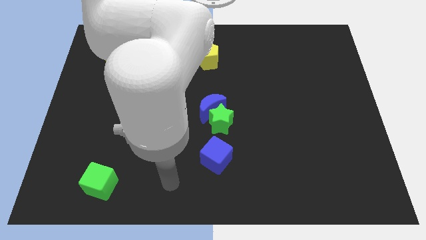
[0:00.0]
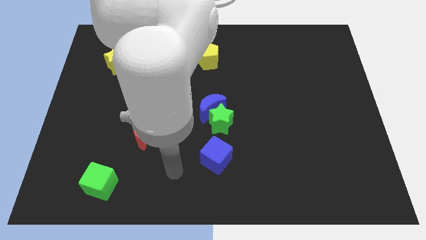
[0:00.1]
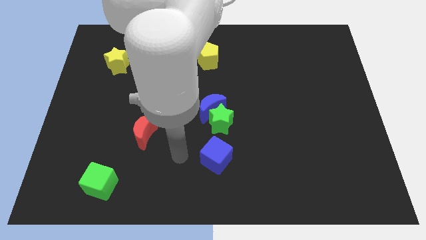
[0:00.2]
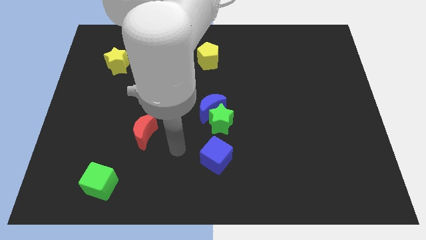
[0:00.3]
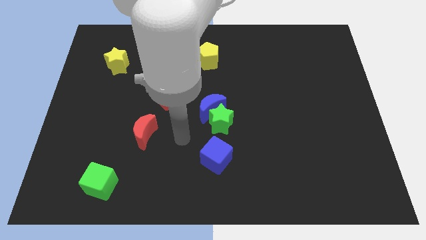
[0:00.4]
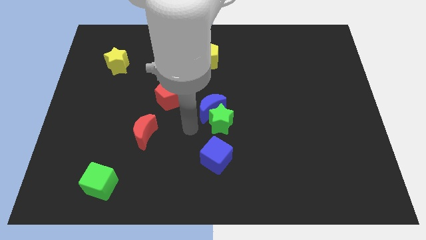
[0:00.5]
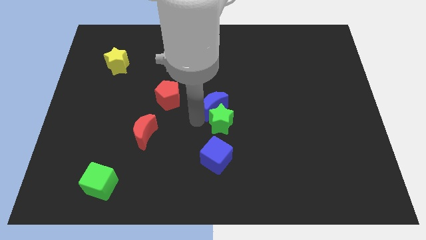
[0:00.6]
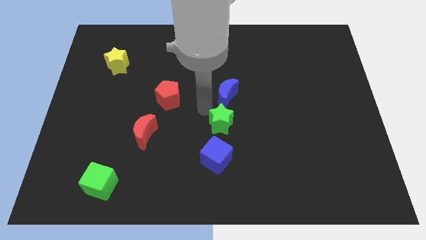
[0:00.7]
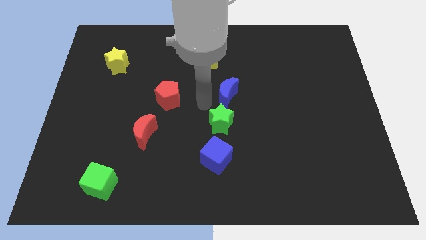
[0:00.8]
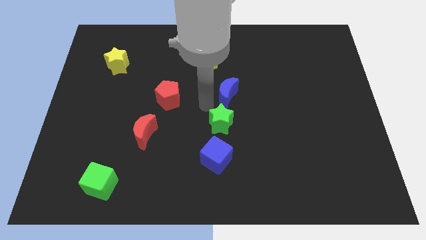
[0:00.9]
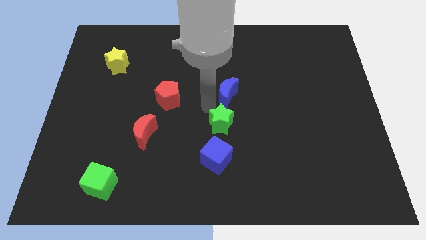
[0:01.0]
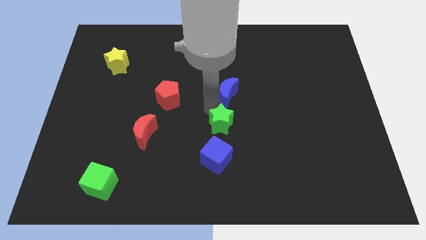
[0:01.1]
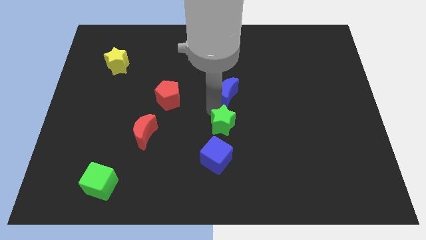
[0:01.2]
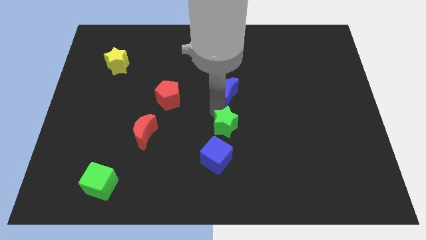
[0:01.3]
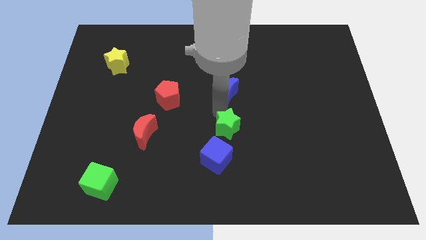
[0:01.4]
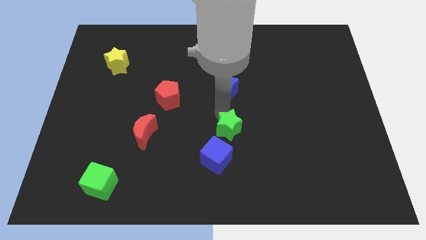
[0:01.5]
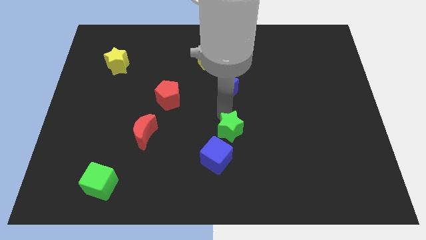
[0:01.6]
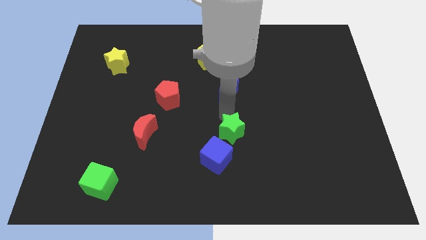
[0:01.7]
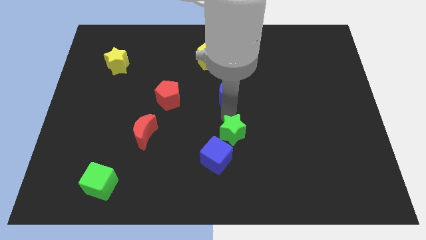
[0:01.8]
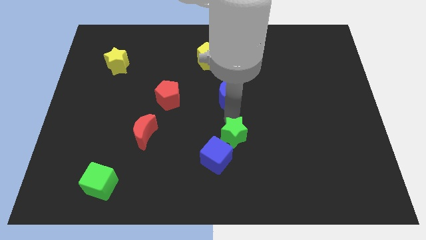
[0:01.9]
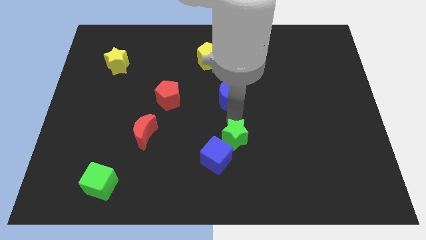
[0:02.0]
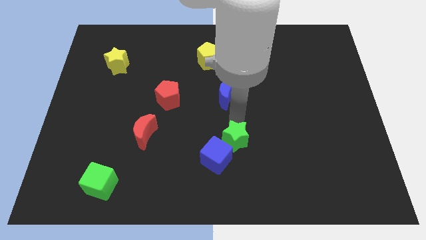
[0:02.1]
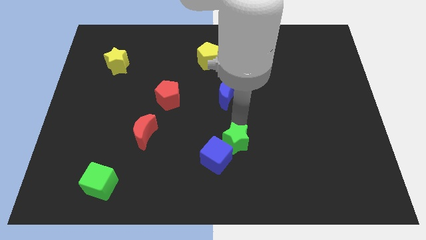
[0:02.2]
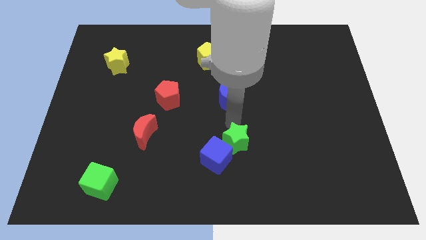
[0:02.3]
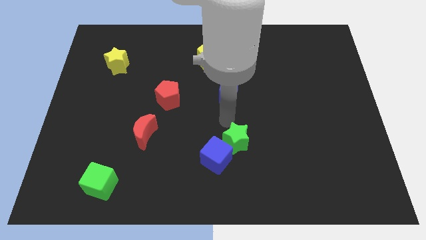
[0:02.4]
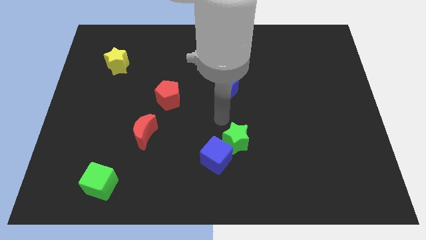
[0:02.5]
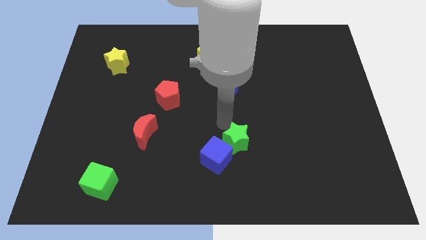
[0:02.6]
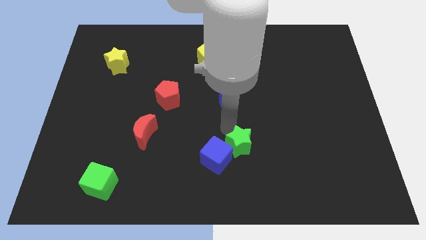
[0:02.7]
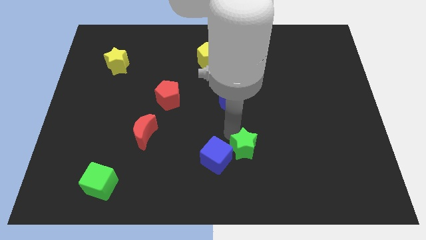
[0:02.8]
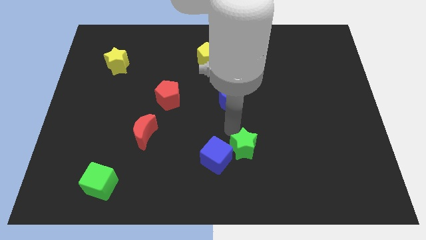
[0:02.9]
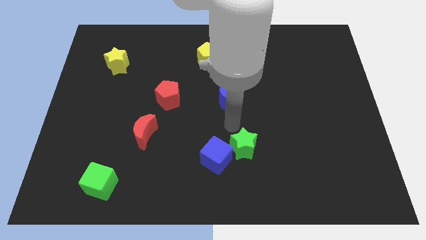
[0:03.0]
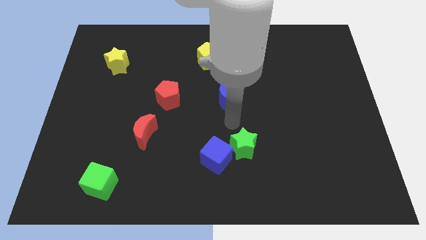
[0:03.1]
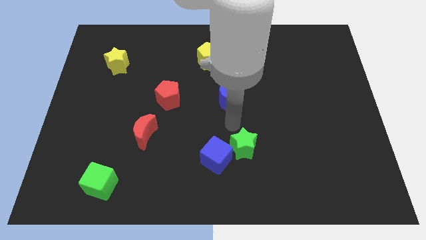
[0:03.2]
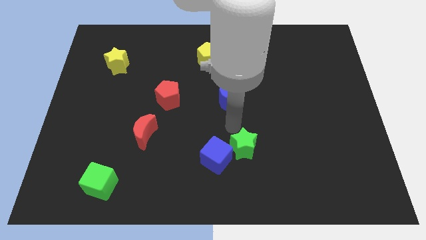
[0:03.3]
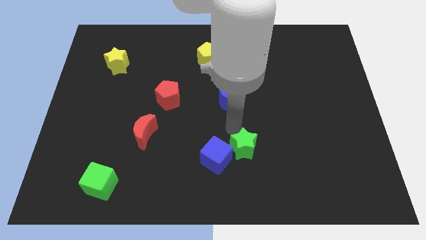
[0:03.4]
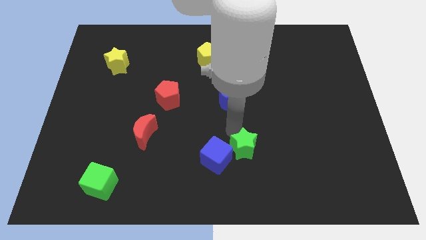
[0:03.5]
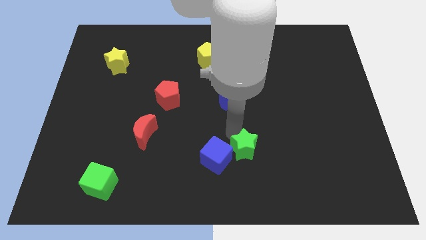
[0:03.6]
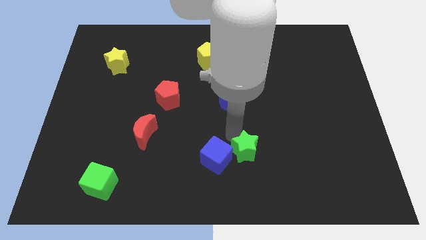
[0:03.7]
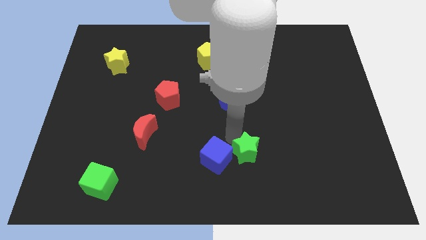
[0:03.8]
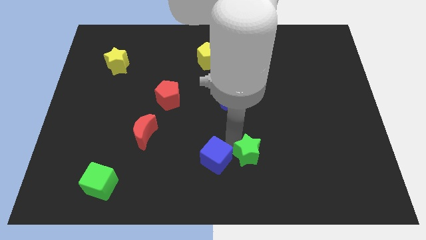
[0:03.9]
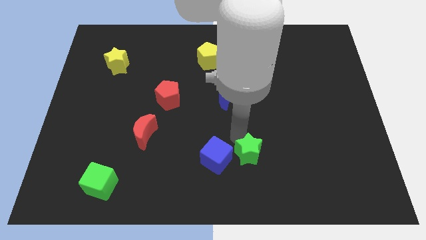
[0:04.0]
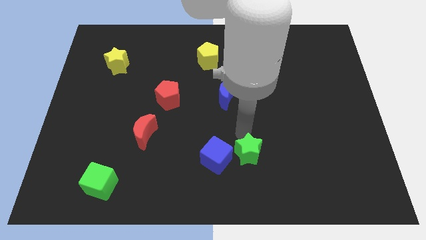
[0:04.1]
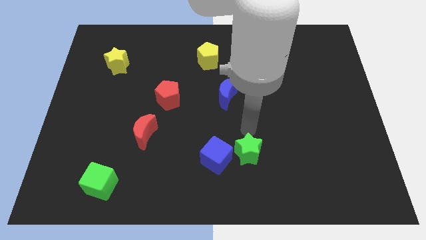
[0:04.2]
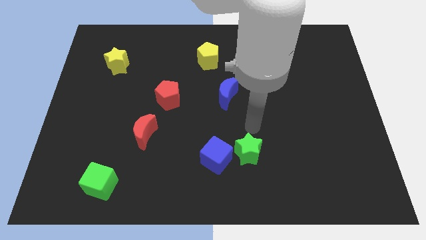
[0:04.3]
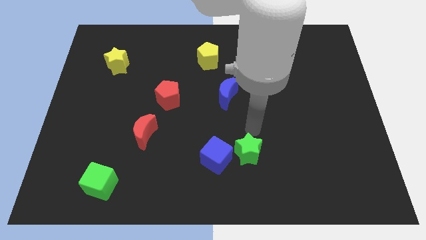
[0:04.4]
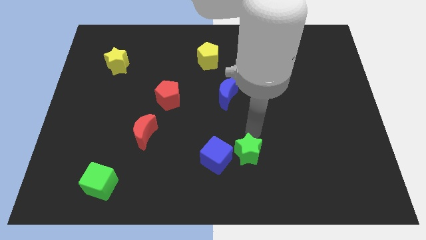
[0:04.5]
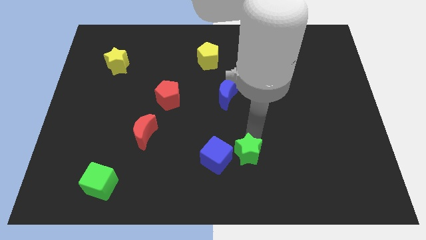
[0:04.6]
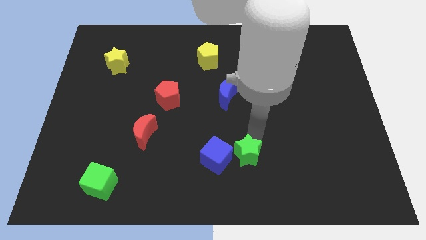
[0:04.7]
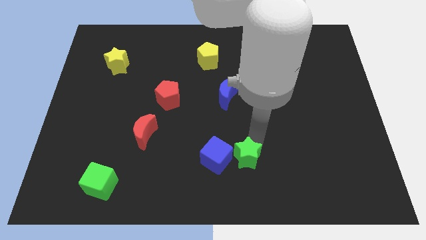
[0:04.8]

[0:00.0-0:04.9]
move the green star to the bottom right side of the blue cube

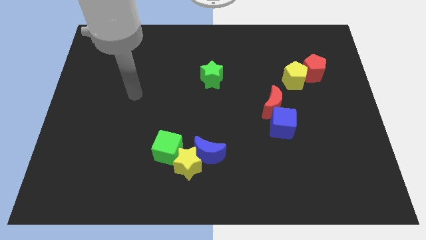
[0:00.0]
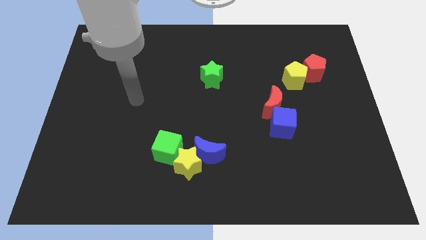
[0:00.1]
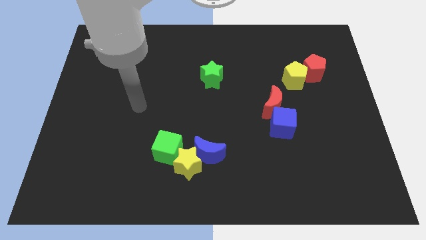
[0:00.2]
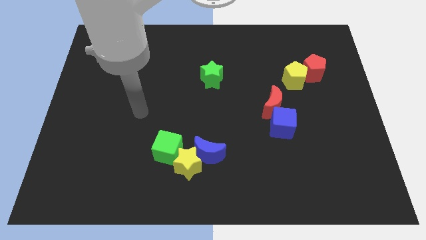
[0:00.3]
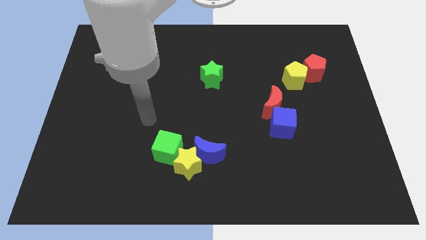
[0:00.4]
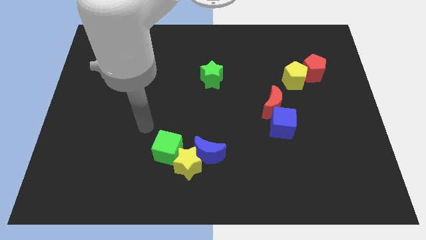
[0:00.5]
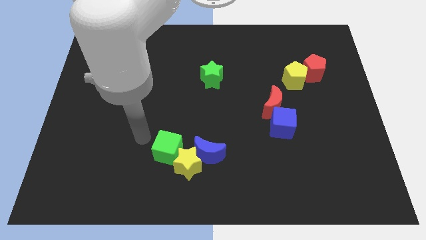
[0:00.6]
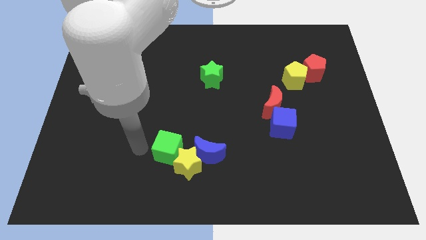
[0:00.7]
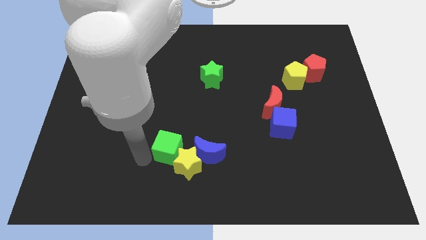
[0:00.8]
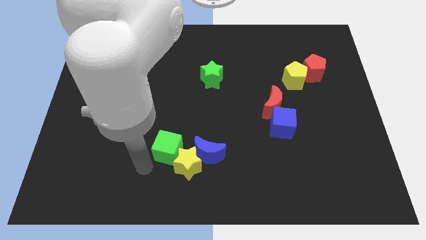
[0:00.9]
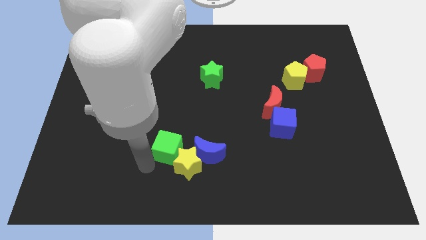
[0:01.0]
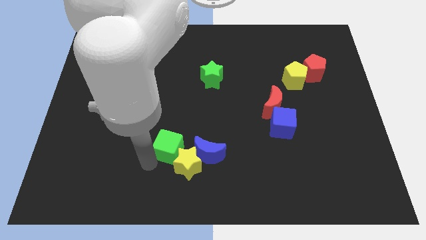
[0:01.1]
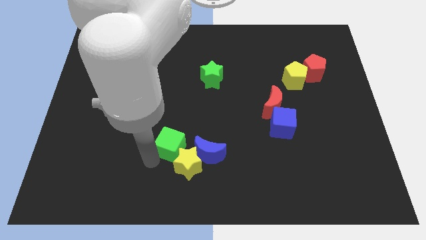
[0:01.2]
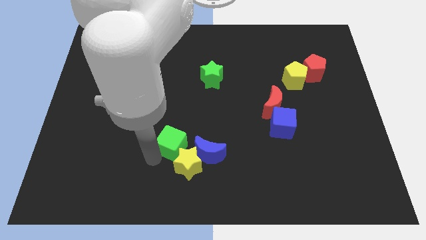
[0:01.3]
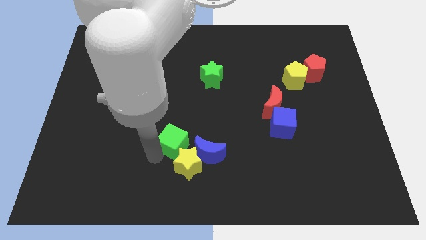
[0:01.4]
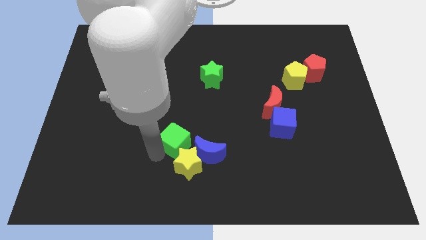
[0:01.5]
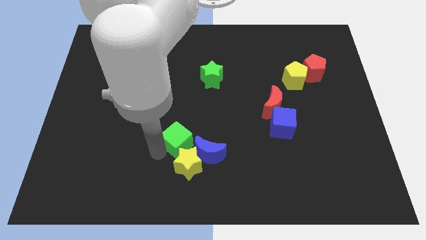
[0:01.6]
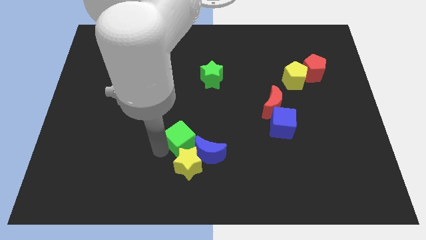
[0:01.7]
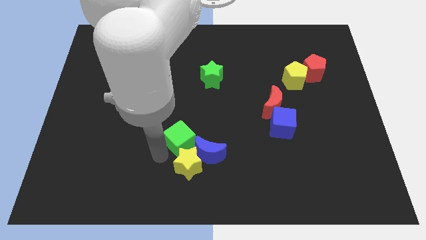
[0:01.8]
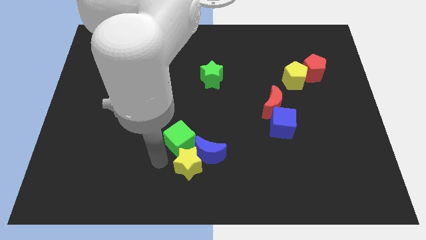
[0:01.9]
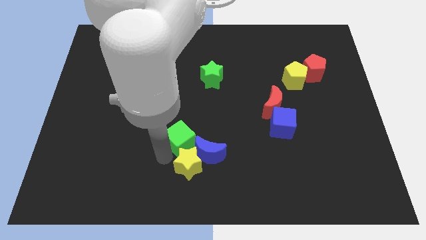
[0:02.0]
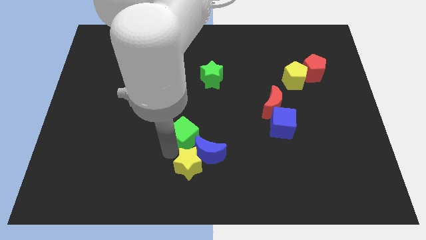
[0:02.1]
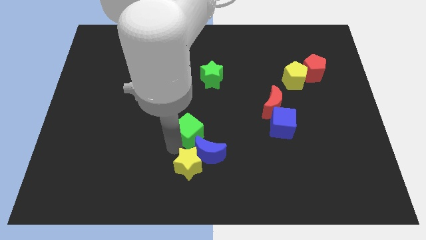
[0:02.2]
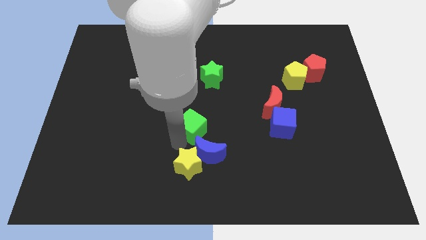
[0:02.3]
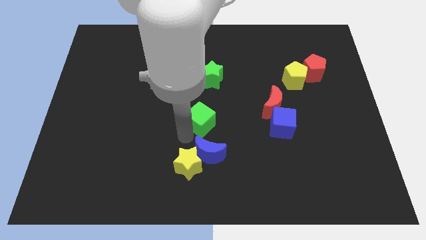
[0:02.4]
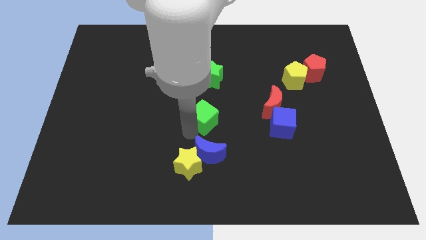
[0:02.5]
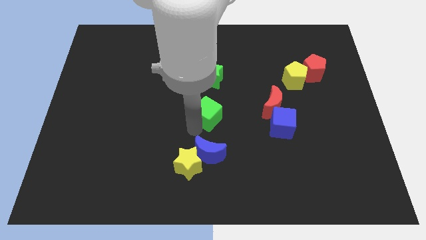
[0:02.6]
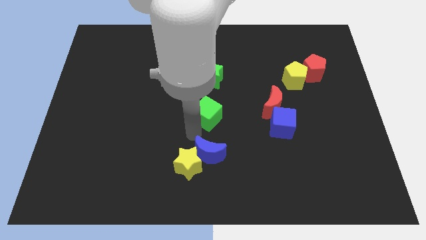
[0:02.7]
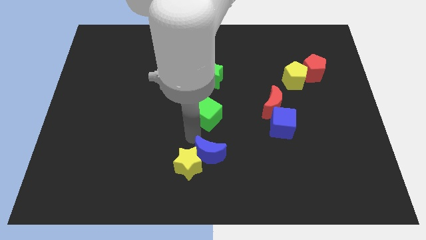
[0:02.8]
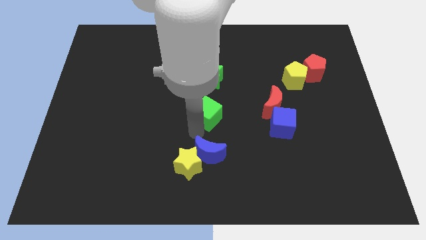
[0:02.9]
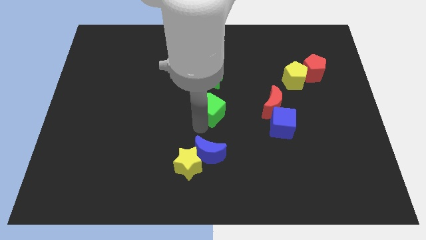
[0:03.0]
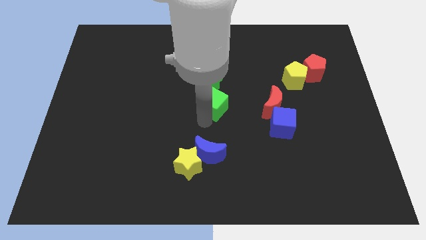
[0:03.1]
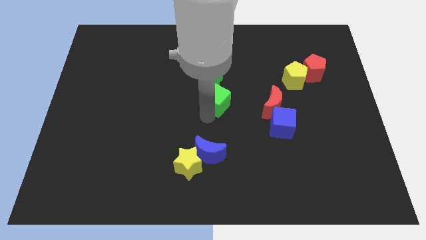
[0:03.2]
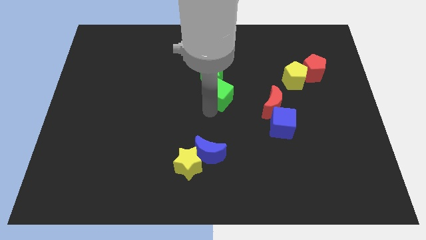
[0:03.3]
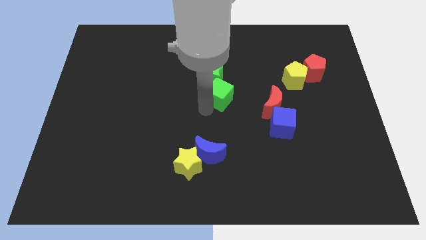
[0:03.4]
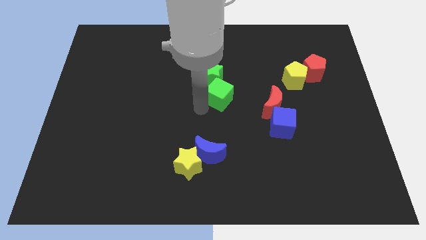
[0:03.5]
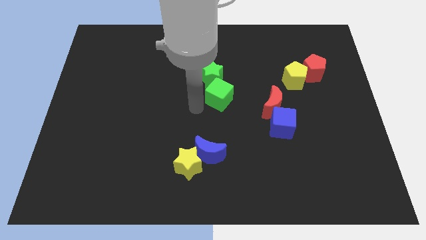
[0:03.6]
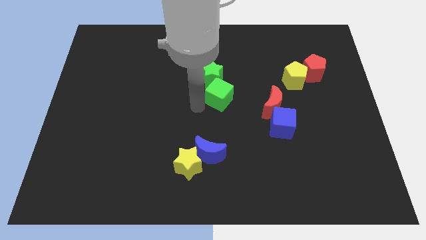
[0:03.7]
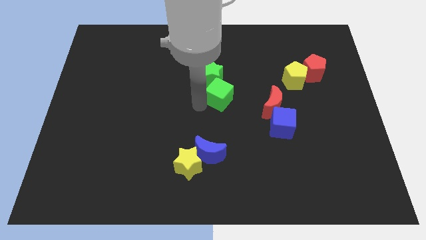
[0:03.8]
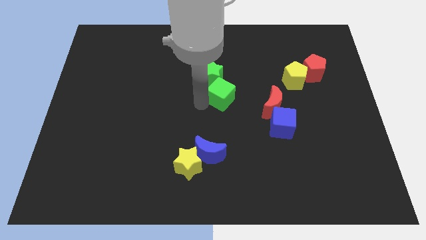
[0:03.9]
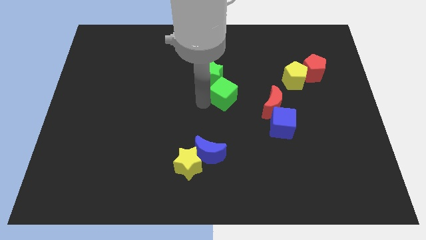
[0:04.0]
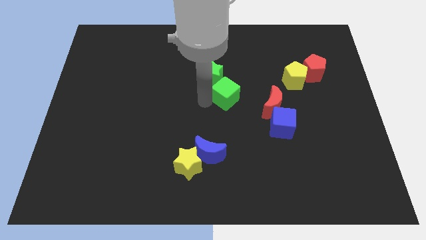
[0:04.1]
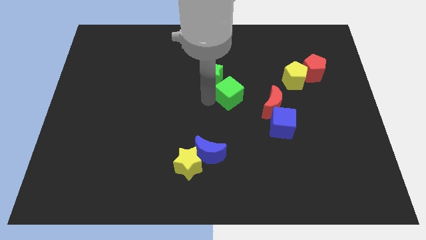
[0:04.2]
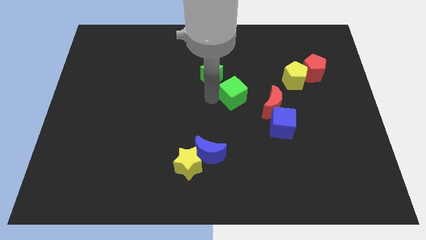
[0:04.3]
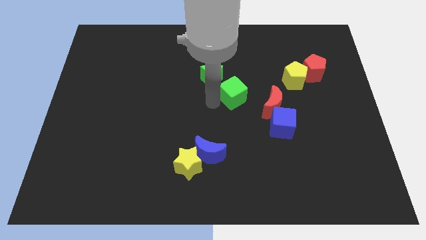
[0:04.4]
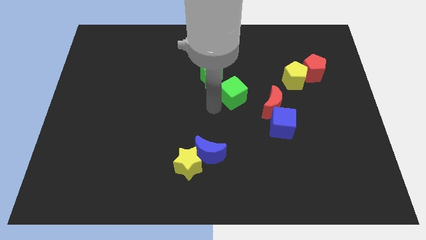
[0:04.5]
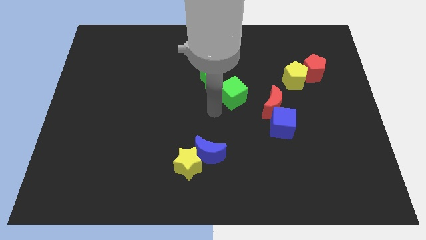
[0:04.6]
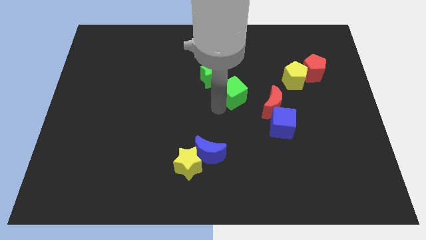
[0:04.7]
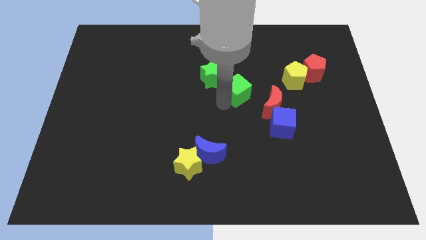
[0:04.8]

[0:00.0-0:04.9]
put the green cube to the right of the green star
